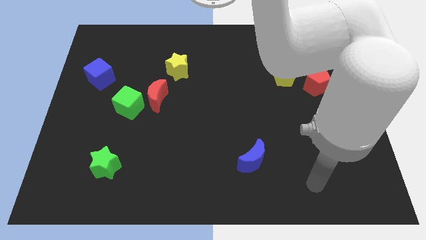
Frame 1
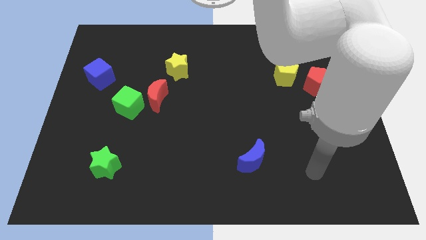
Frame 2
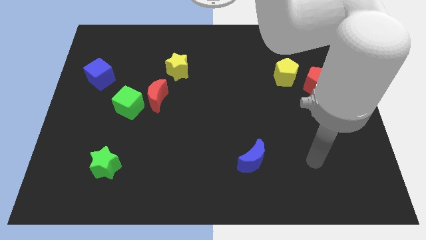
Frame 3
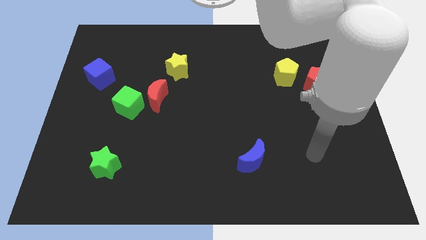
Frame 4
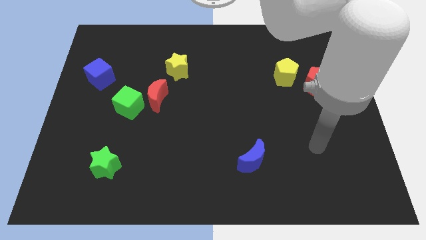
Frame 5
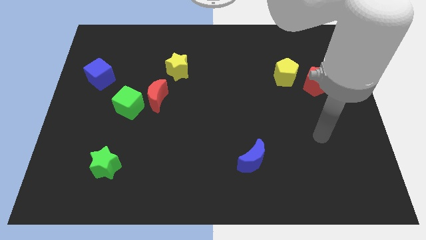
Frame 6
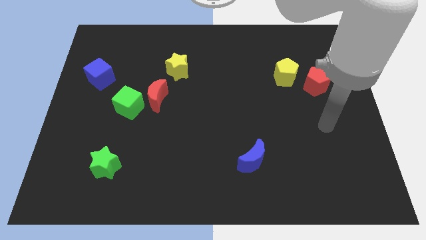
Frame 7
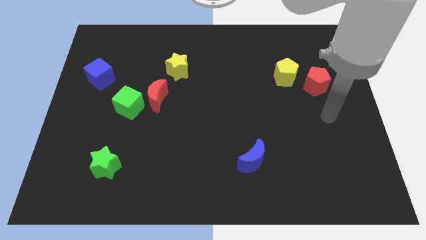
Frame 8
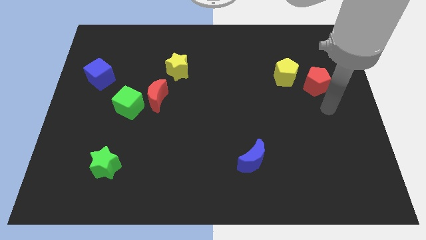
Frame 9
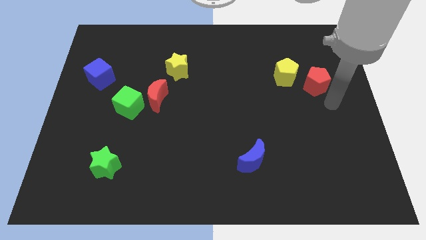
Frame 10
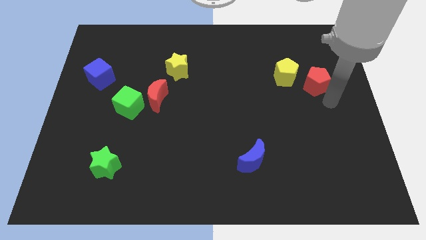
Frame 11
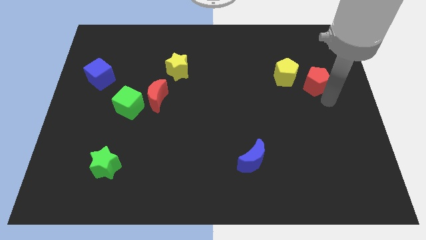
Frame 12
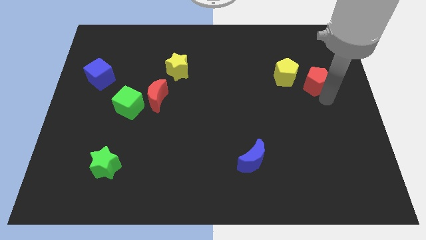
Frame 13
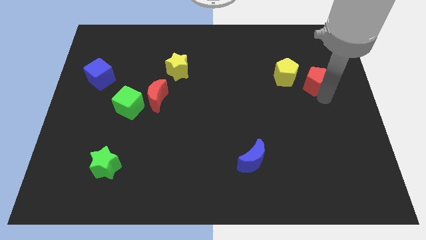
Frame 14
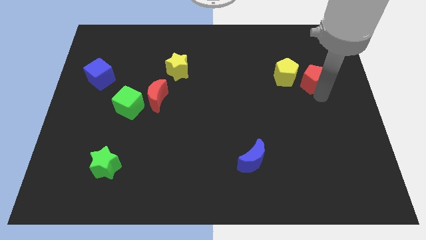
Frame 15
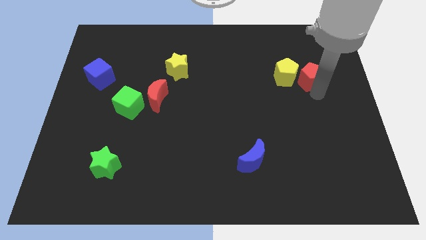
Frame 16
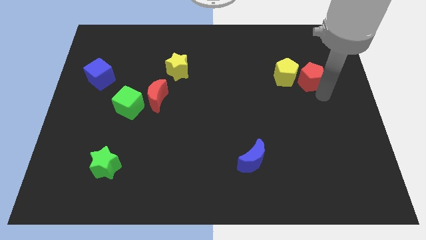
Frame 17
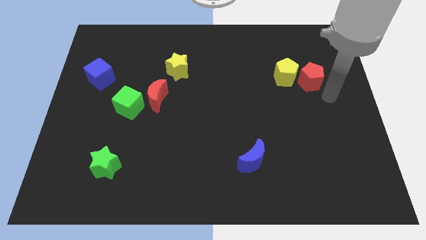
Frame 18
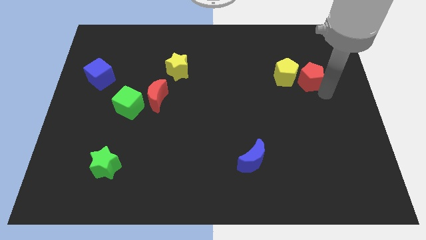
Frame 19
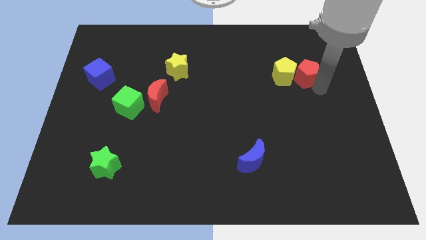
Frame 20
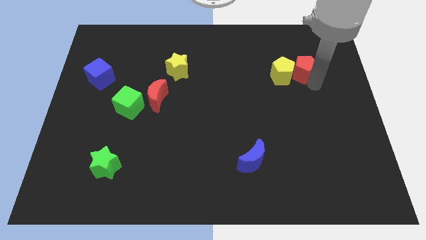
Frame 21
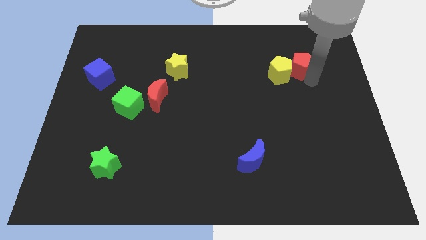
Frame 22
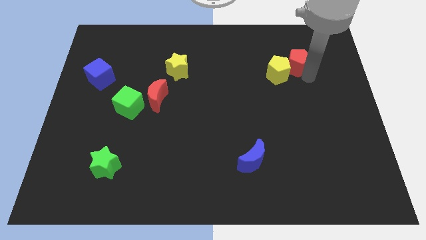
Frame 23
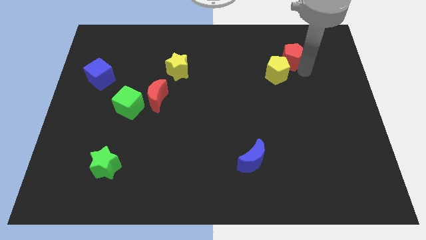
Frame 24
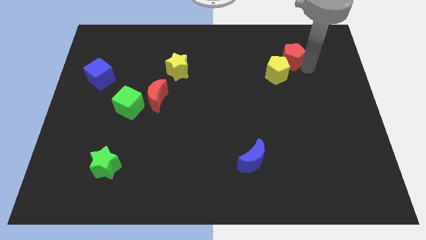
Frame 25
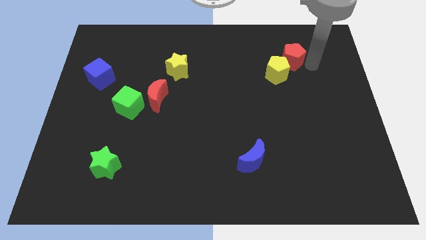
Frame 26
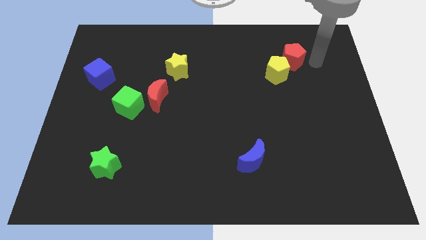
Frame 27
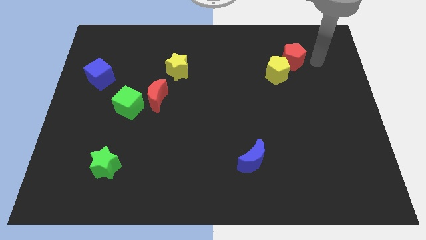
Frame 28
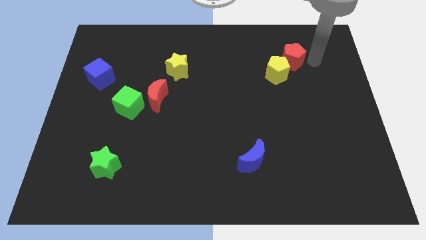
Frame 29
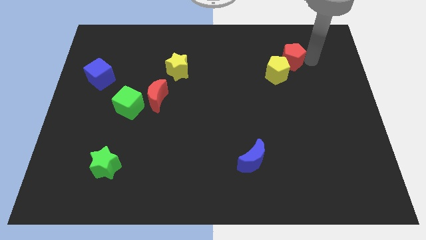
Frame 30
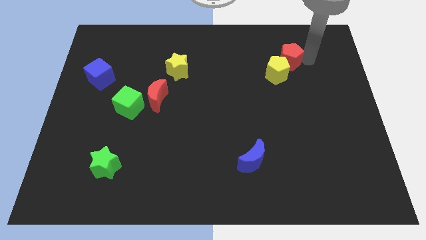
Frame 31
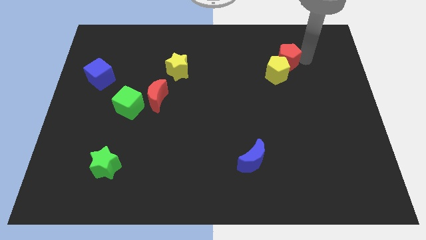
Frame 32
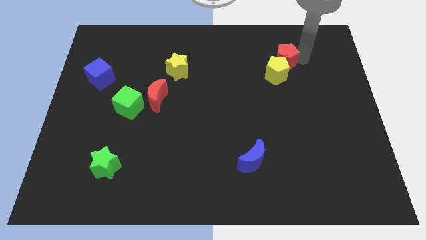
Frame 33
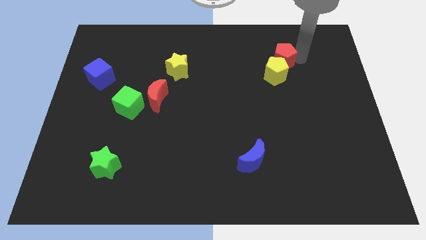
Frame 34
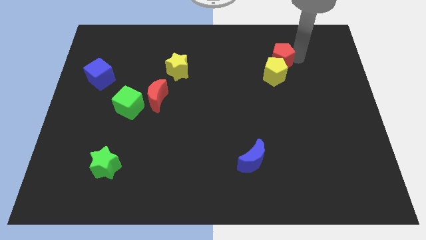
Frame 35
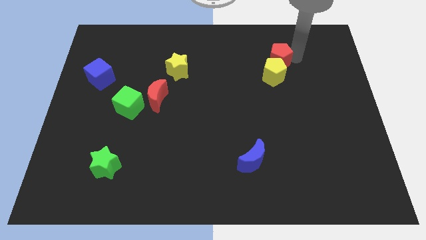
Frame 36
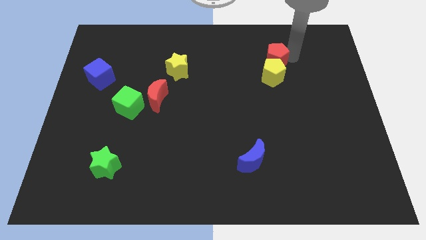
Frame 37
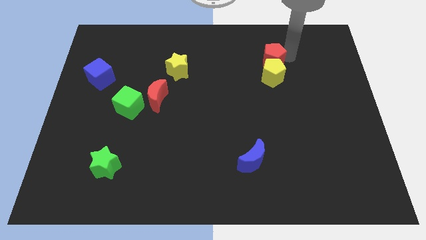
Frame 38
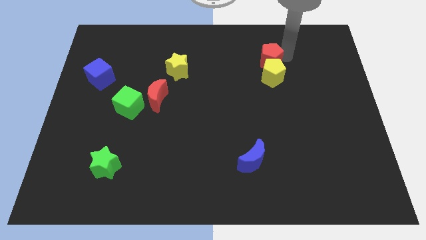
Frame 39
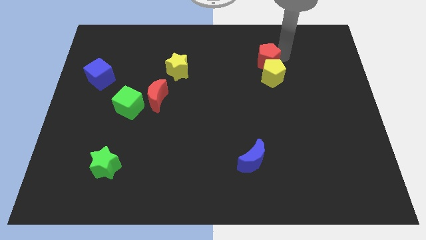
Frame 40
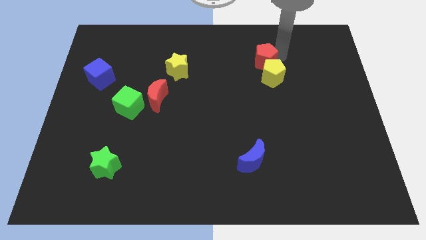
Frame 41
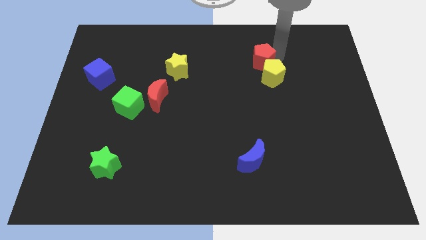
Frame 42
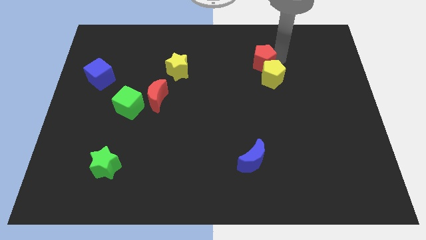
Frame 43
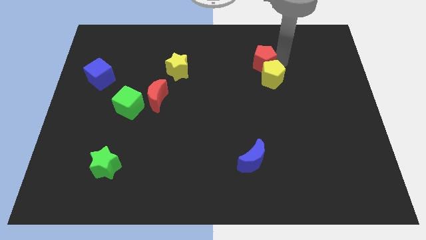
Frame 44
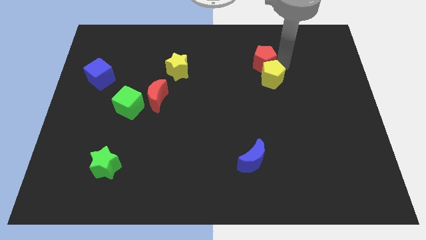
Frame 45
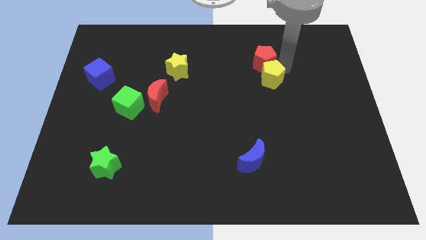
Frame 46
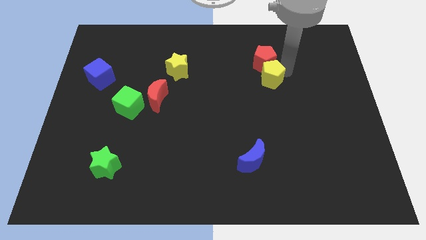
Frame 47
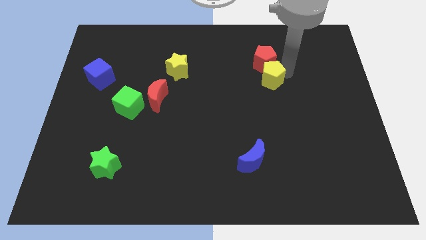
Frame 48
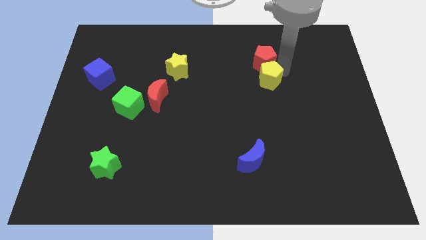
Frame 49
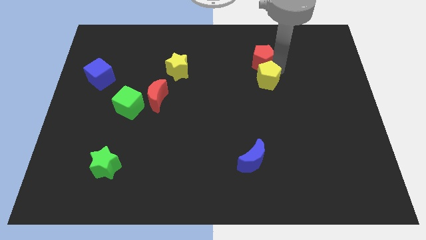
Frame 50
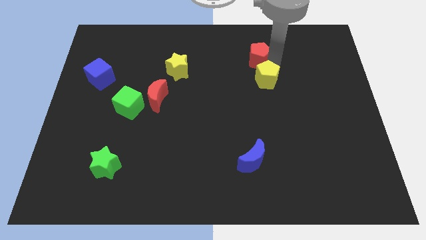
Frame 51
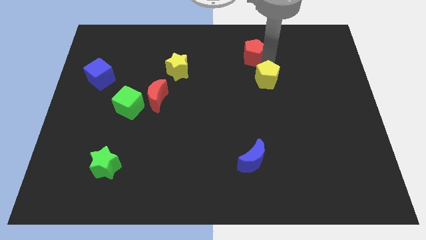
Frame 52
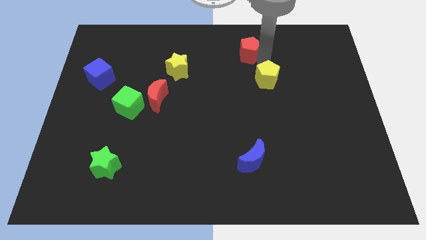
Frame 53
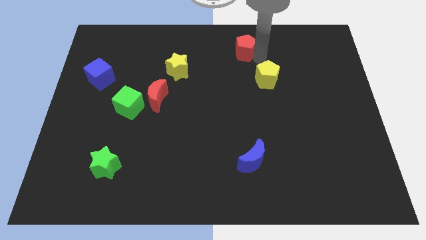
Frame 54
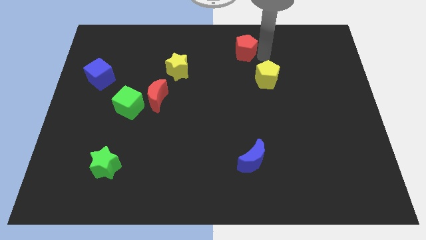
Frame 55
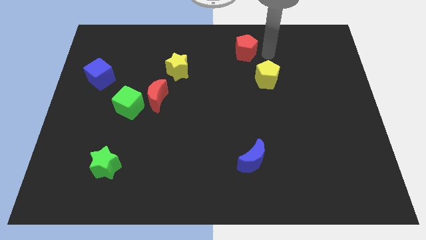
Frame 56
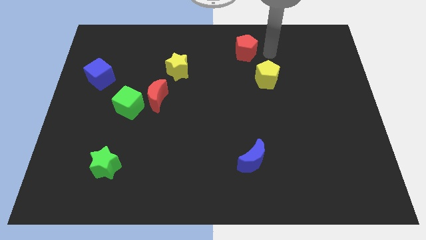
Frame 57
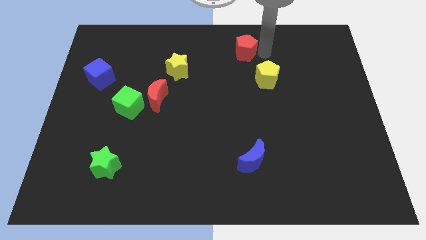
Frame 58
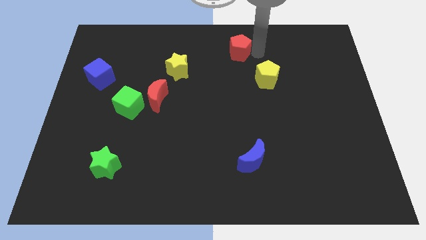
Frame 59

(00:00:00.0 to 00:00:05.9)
move the red pentagon to the top
